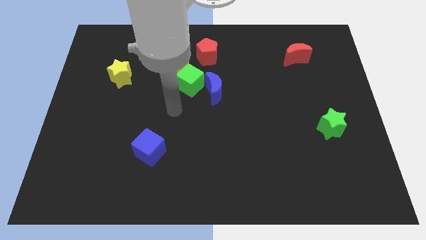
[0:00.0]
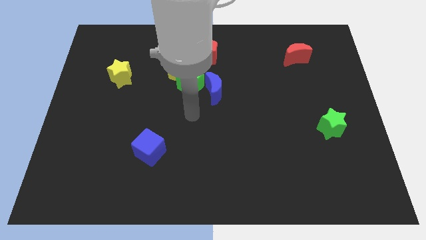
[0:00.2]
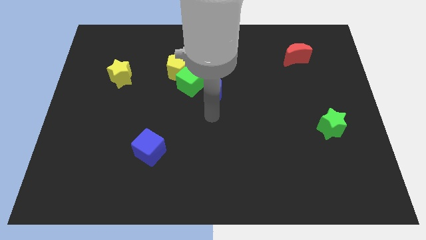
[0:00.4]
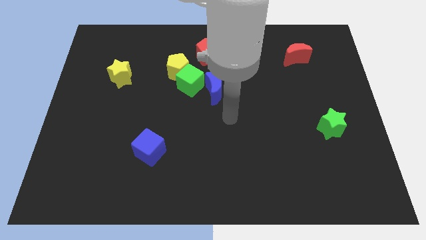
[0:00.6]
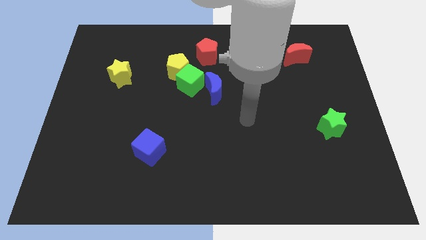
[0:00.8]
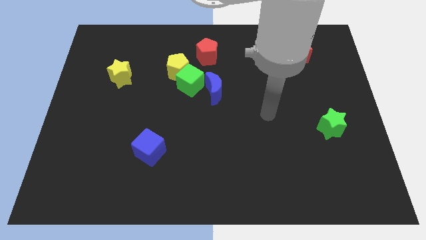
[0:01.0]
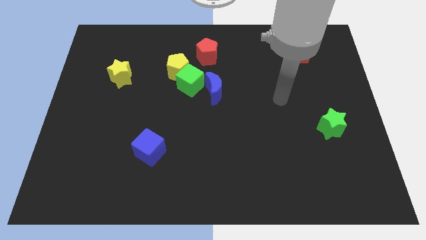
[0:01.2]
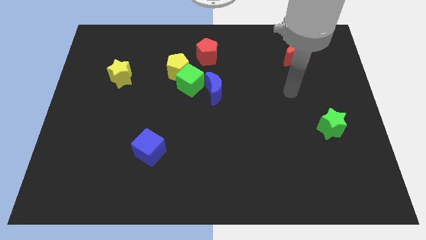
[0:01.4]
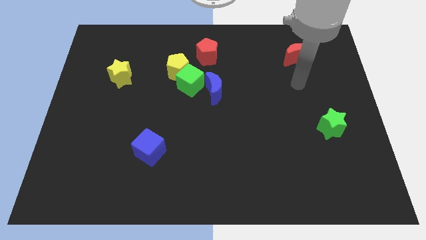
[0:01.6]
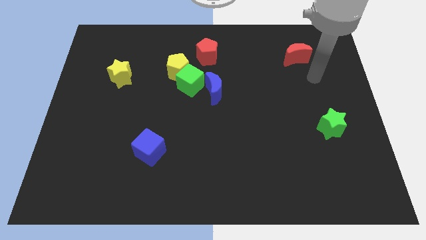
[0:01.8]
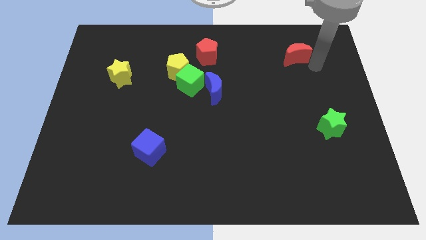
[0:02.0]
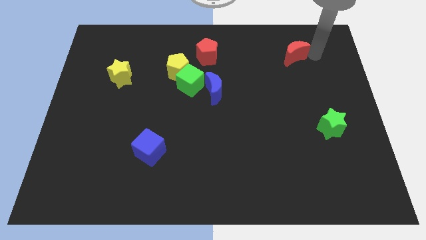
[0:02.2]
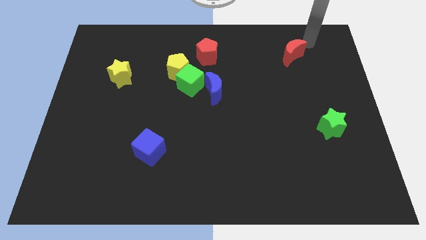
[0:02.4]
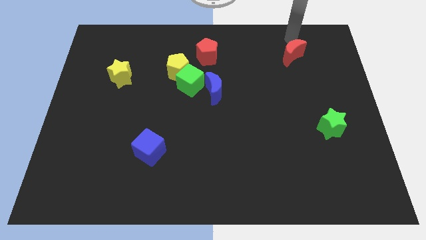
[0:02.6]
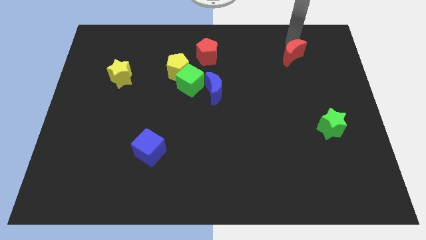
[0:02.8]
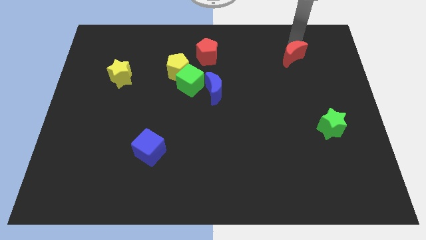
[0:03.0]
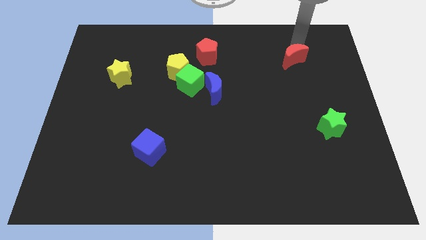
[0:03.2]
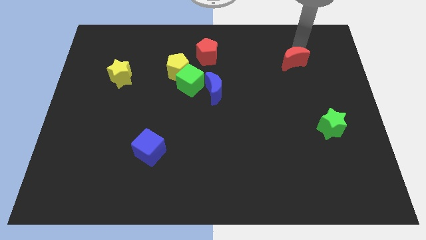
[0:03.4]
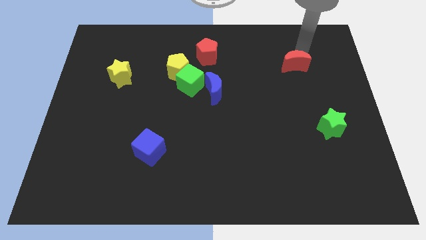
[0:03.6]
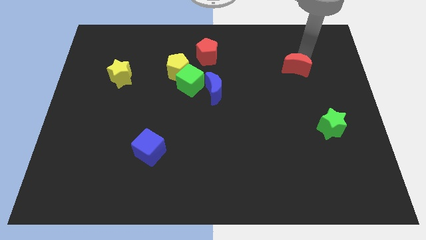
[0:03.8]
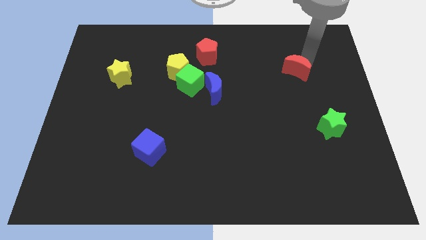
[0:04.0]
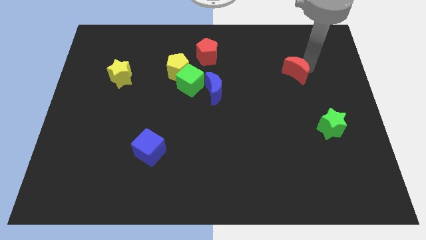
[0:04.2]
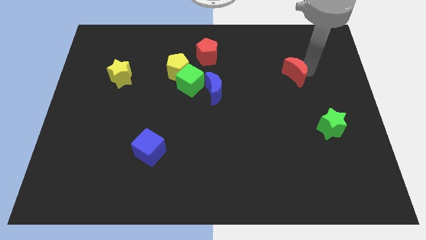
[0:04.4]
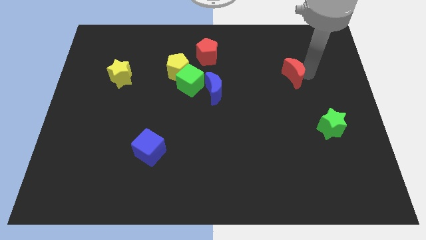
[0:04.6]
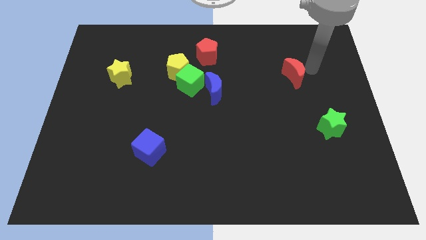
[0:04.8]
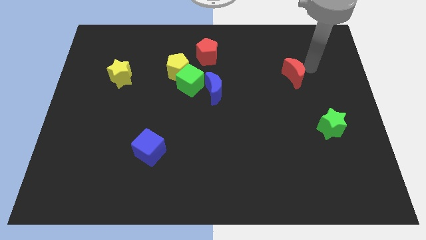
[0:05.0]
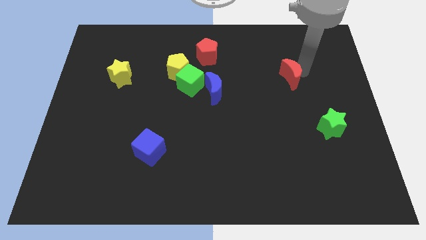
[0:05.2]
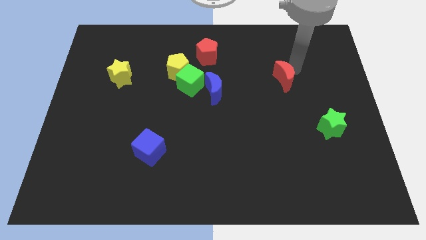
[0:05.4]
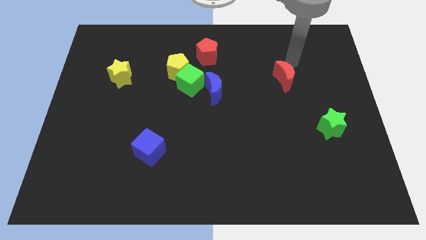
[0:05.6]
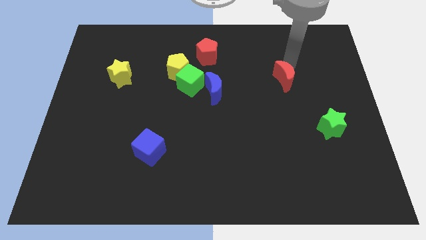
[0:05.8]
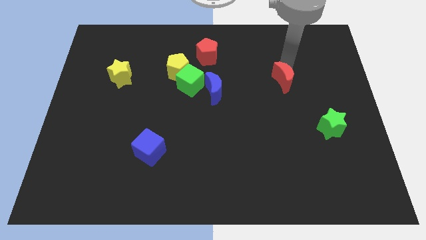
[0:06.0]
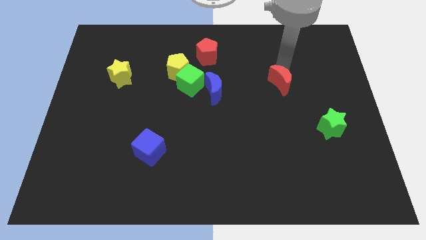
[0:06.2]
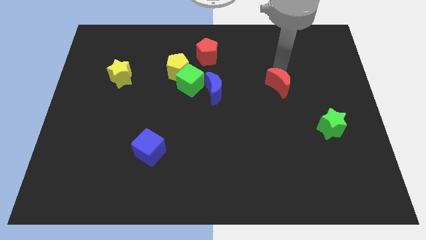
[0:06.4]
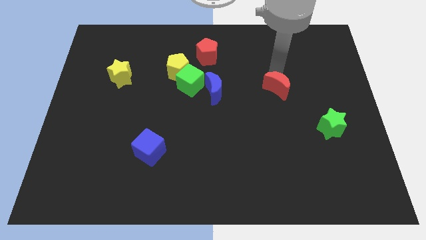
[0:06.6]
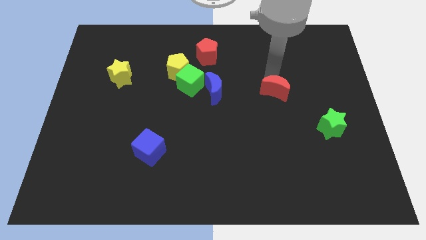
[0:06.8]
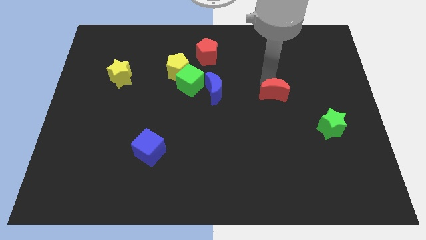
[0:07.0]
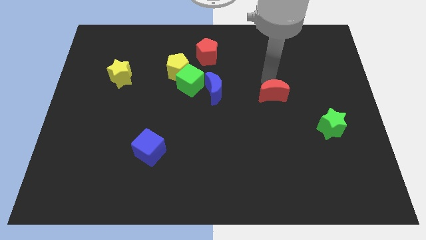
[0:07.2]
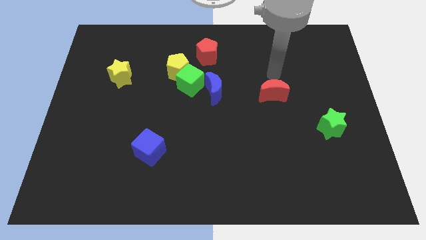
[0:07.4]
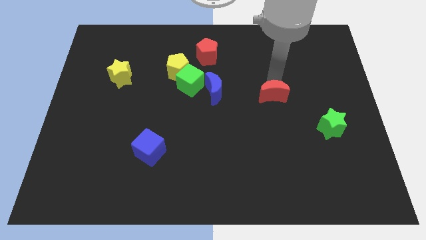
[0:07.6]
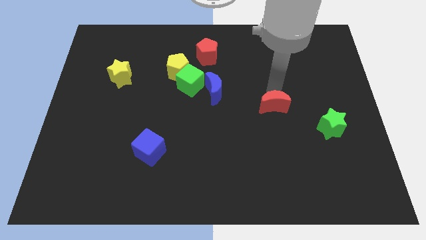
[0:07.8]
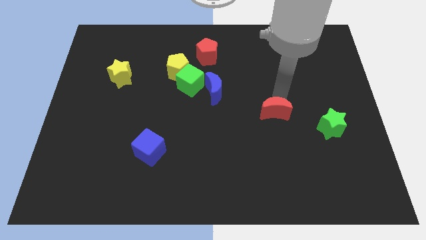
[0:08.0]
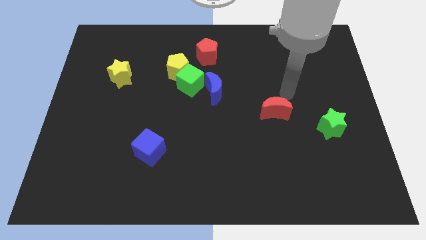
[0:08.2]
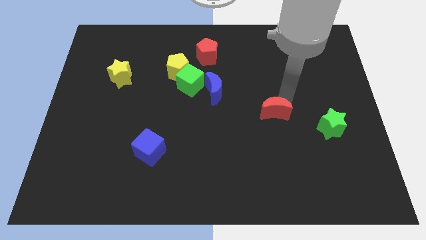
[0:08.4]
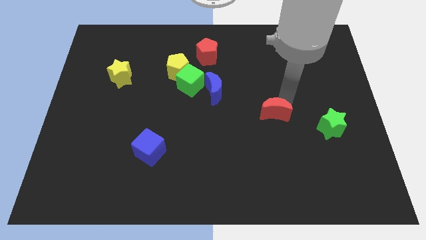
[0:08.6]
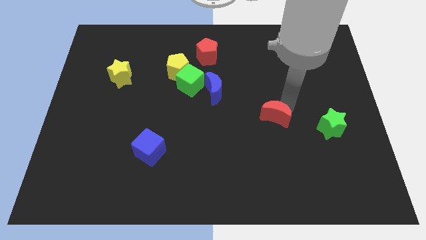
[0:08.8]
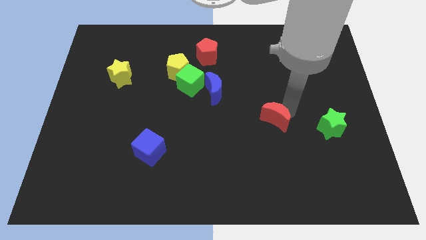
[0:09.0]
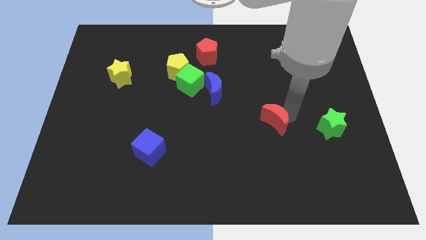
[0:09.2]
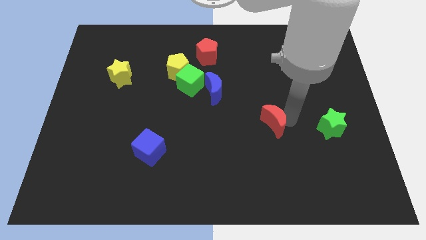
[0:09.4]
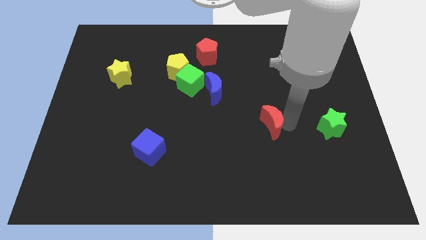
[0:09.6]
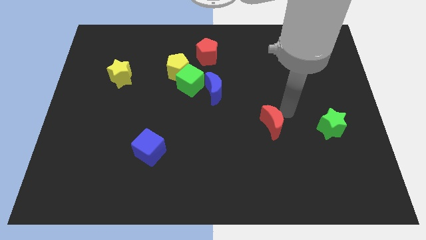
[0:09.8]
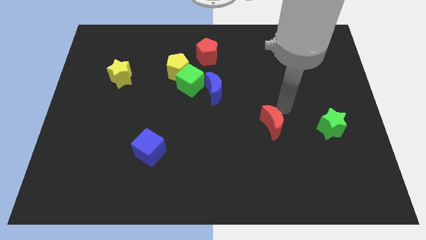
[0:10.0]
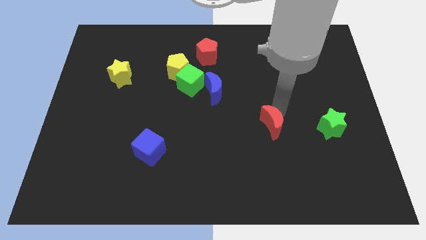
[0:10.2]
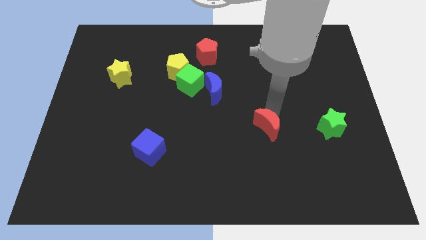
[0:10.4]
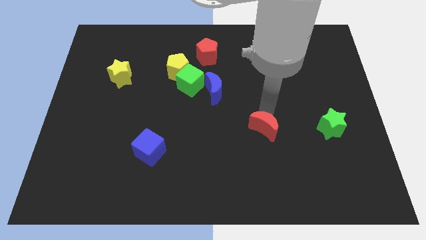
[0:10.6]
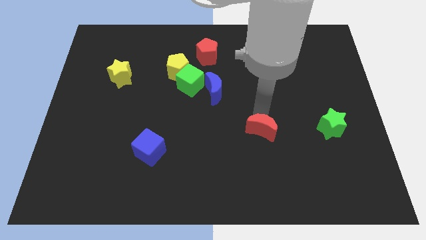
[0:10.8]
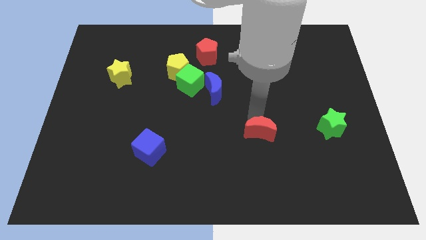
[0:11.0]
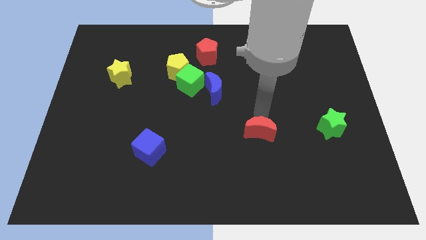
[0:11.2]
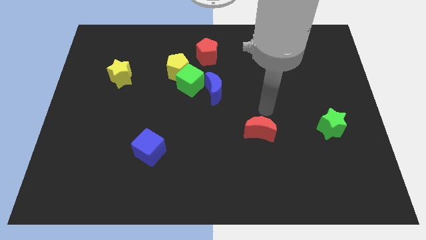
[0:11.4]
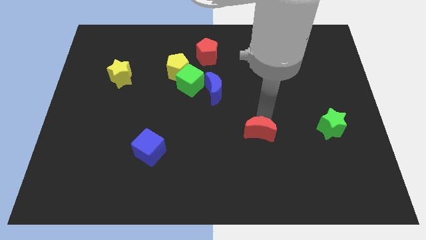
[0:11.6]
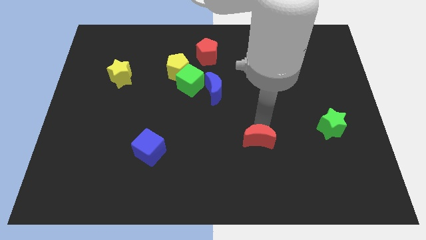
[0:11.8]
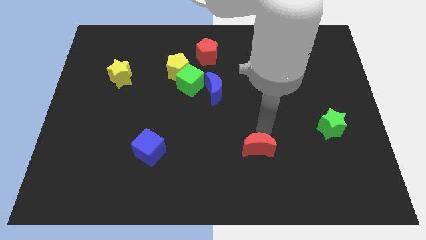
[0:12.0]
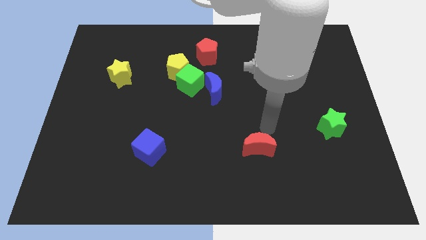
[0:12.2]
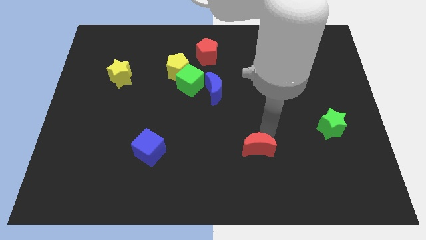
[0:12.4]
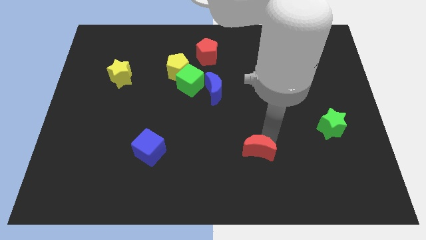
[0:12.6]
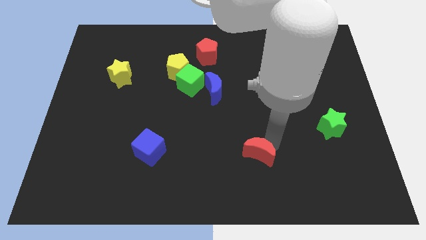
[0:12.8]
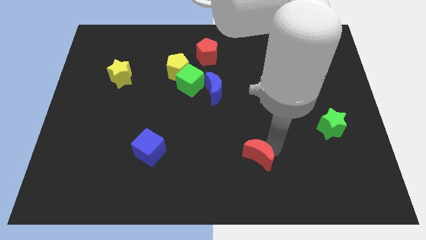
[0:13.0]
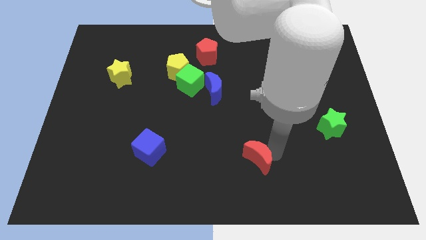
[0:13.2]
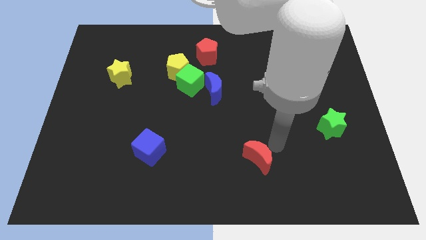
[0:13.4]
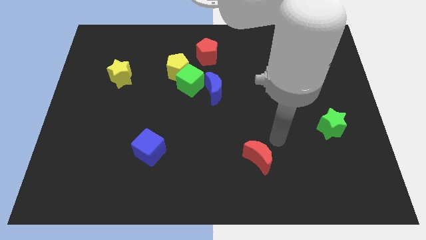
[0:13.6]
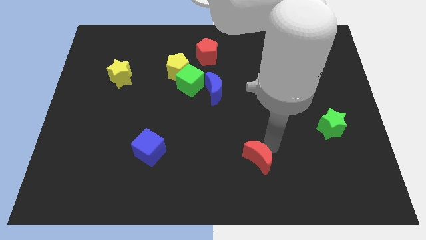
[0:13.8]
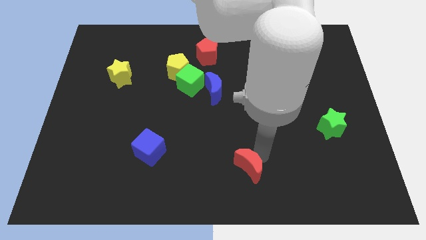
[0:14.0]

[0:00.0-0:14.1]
slide the red moon to the bottom

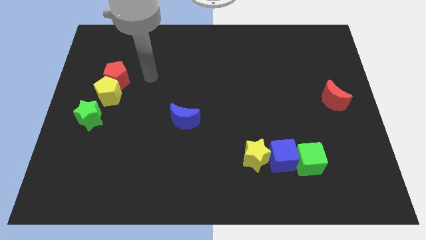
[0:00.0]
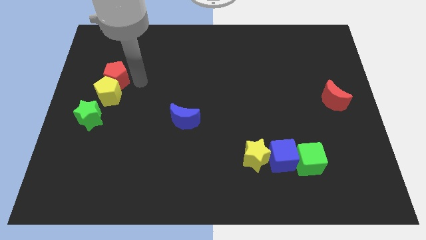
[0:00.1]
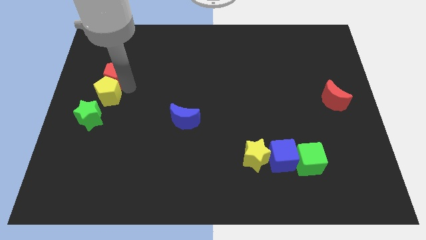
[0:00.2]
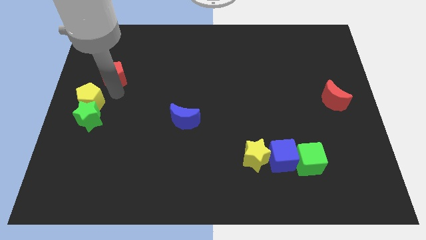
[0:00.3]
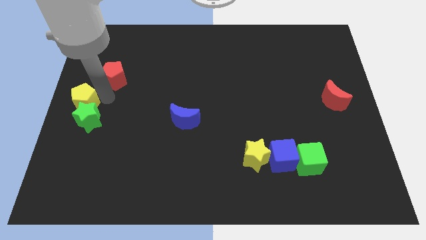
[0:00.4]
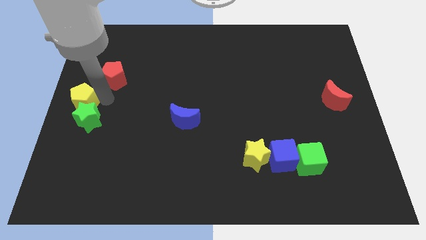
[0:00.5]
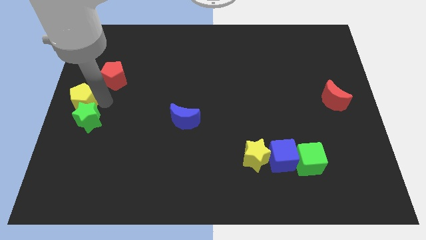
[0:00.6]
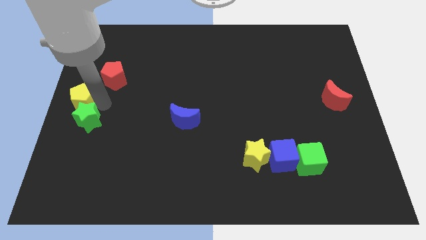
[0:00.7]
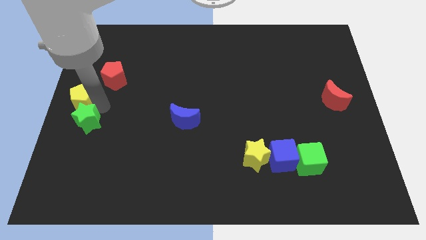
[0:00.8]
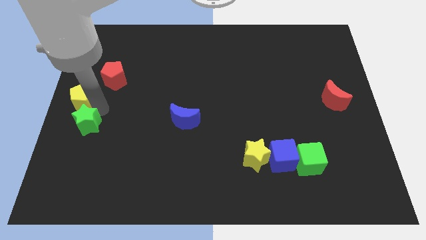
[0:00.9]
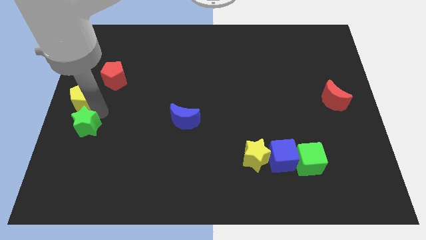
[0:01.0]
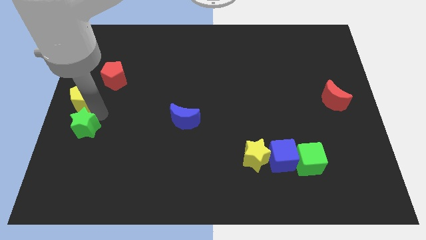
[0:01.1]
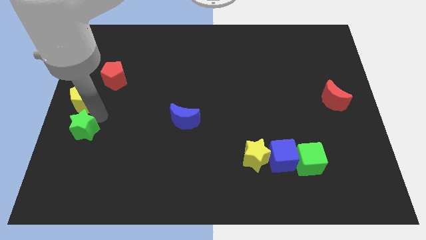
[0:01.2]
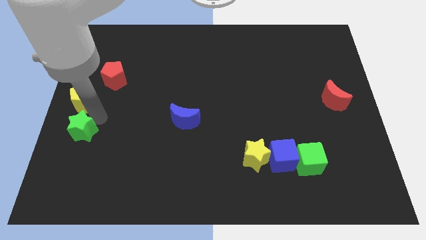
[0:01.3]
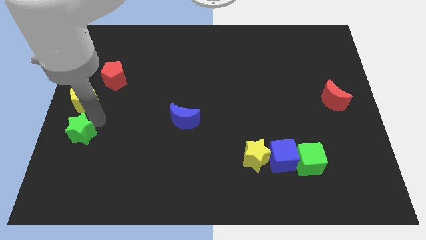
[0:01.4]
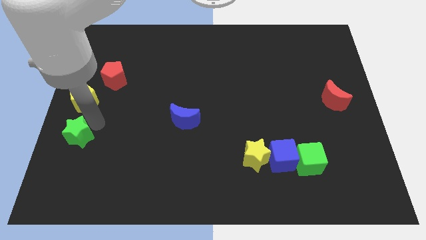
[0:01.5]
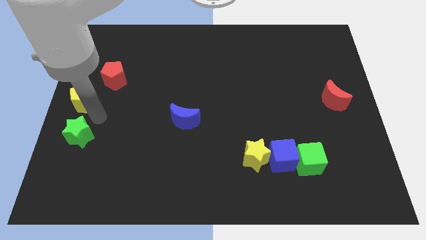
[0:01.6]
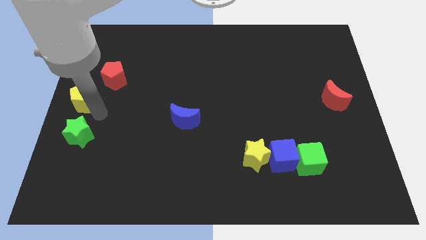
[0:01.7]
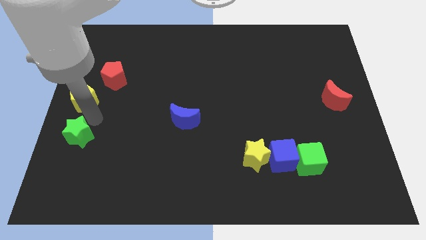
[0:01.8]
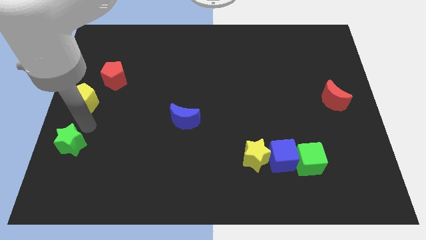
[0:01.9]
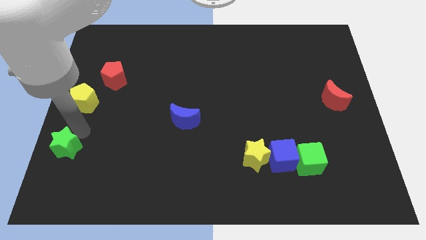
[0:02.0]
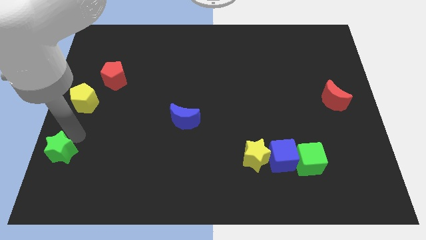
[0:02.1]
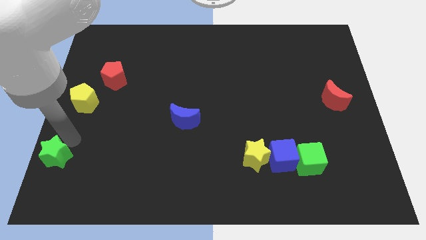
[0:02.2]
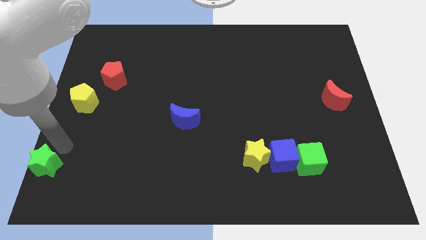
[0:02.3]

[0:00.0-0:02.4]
push the green star to the bottom left
